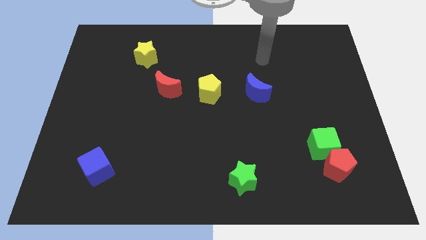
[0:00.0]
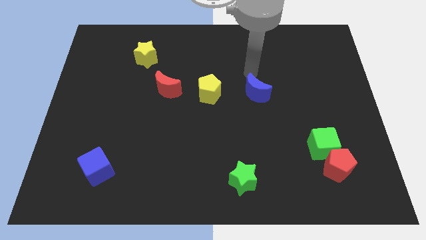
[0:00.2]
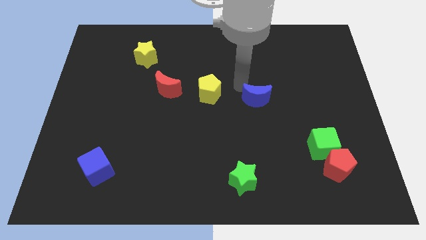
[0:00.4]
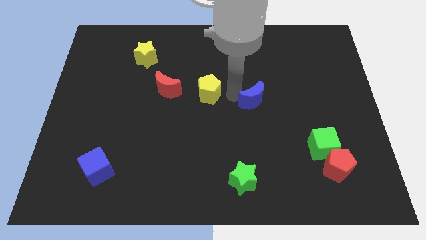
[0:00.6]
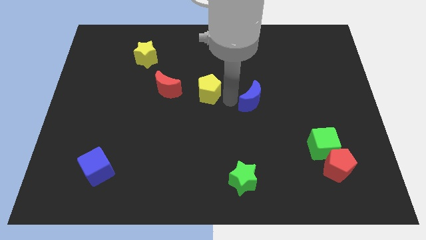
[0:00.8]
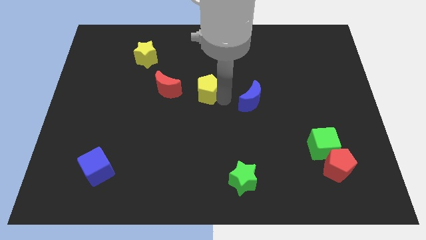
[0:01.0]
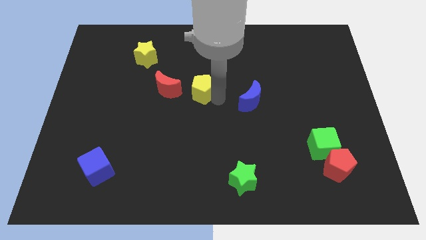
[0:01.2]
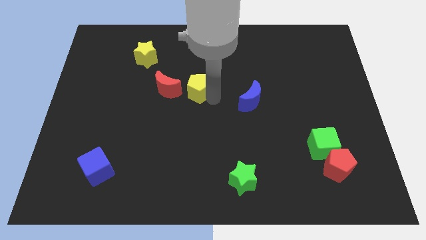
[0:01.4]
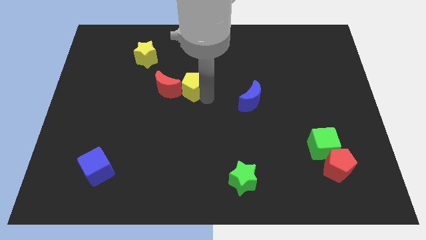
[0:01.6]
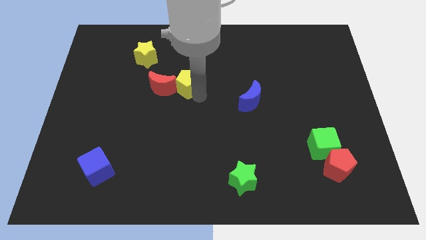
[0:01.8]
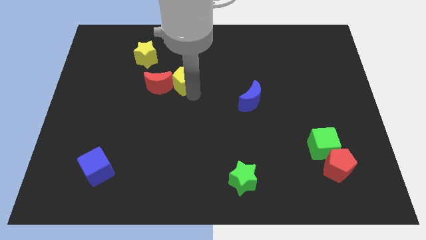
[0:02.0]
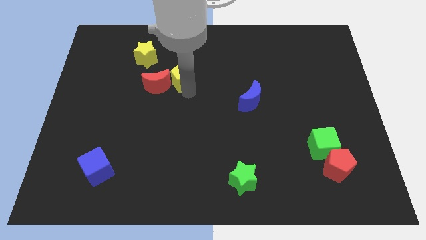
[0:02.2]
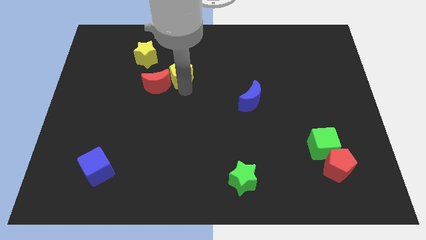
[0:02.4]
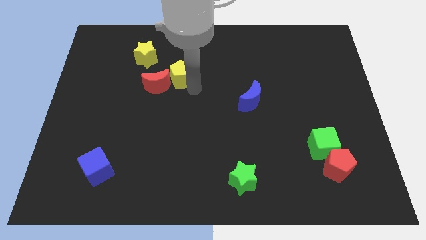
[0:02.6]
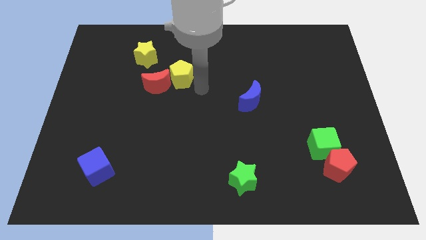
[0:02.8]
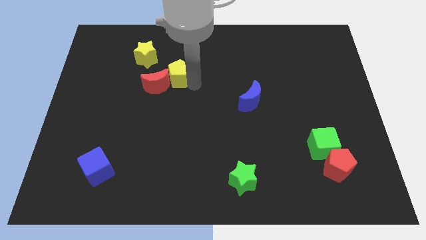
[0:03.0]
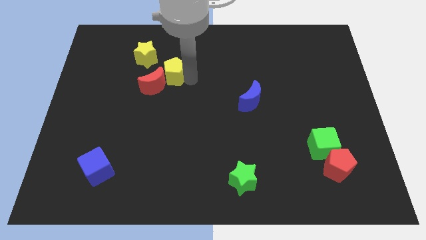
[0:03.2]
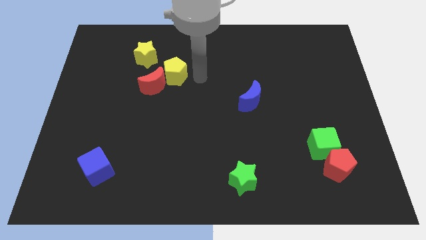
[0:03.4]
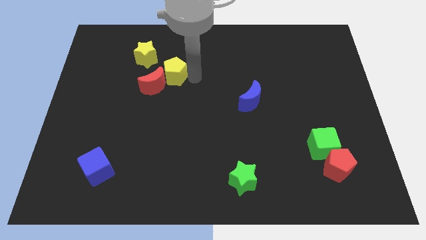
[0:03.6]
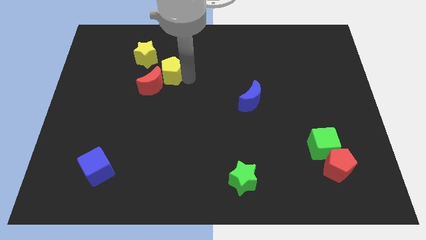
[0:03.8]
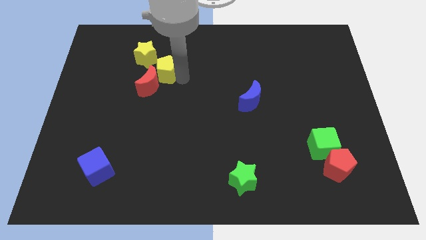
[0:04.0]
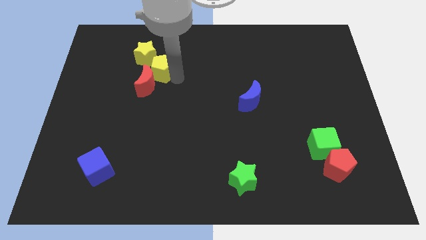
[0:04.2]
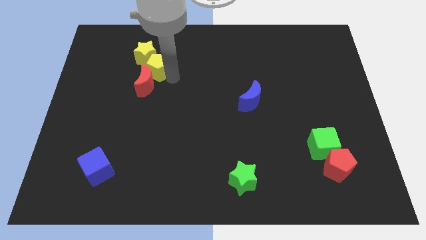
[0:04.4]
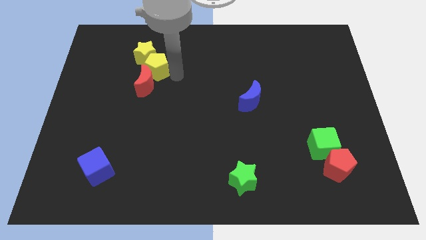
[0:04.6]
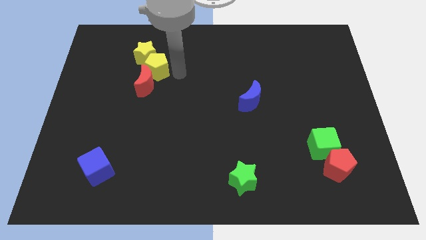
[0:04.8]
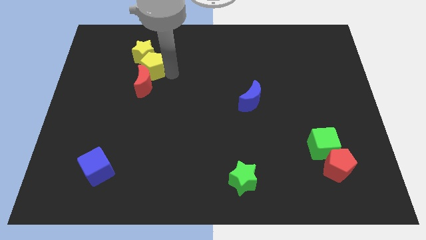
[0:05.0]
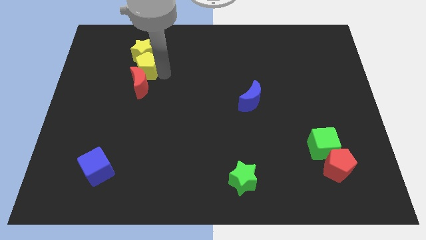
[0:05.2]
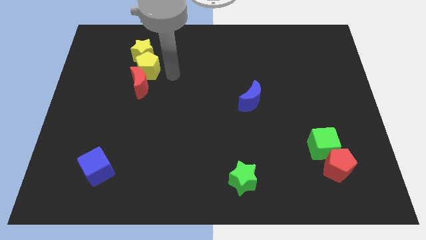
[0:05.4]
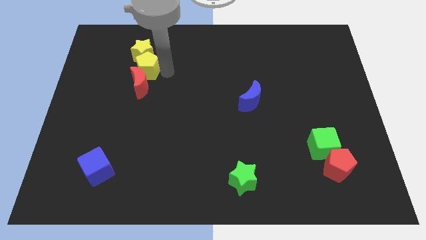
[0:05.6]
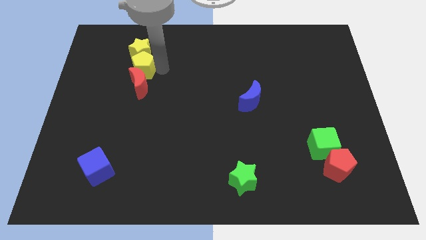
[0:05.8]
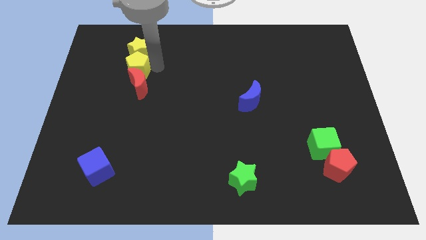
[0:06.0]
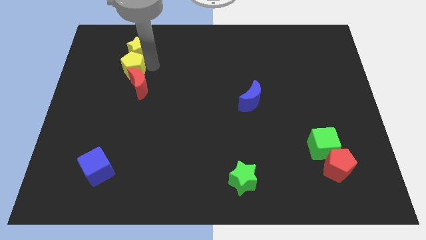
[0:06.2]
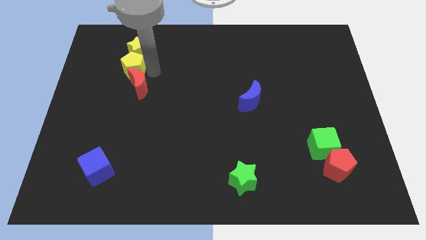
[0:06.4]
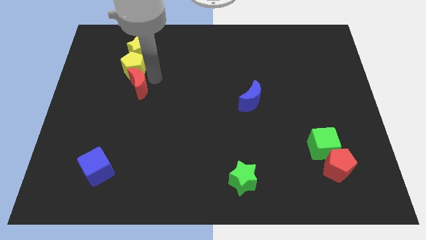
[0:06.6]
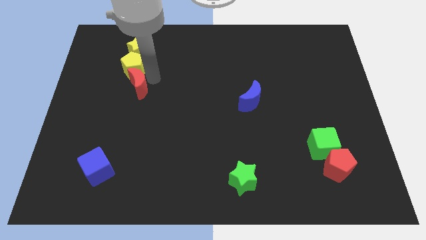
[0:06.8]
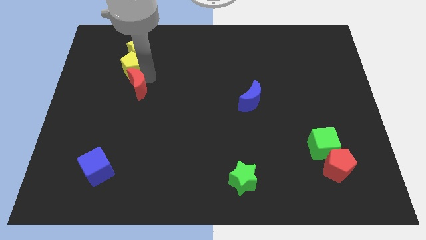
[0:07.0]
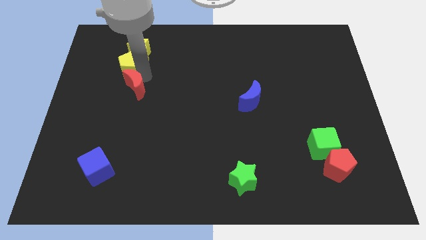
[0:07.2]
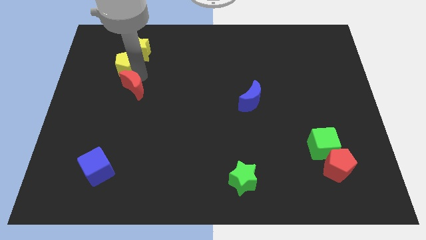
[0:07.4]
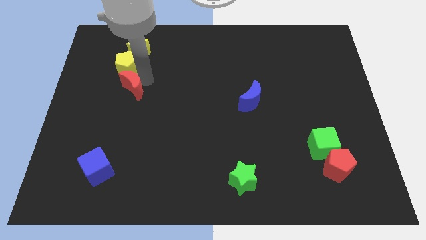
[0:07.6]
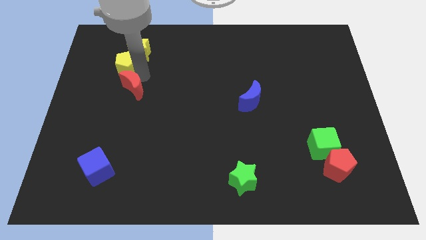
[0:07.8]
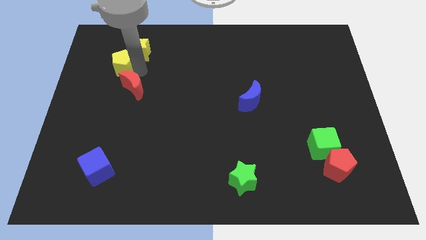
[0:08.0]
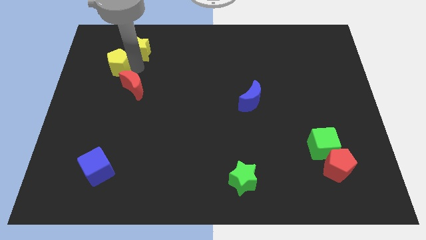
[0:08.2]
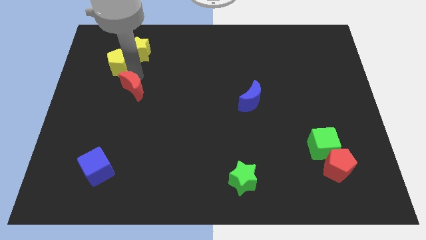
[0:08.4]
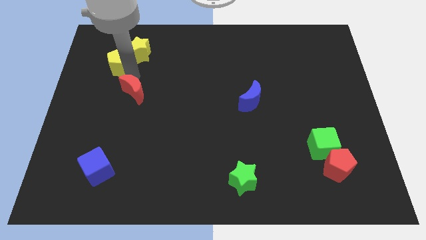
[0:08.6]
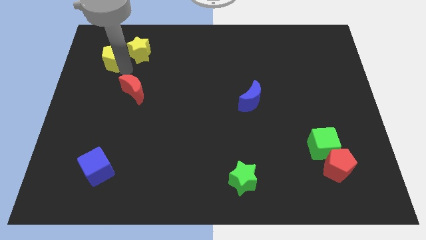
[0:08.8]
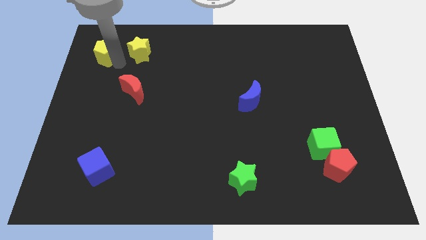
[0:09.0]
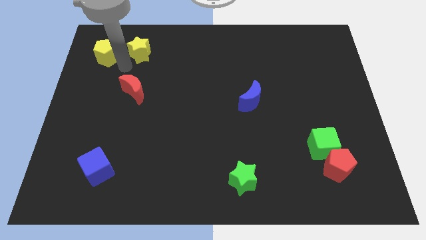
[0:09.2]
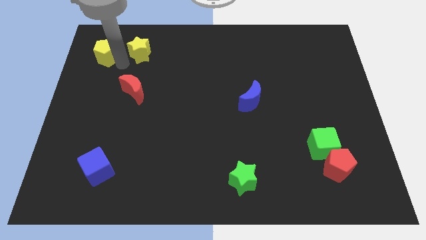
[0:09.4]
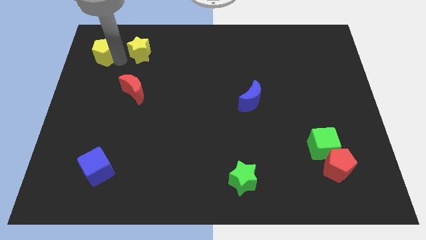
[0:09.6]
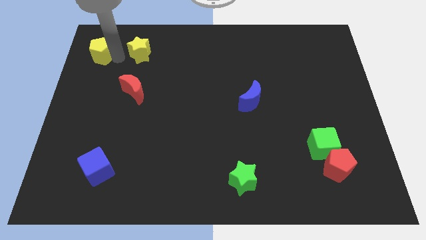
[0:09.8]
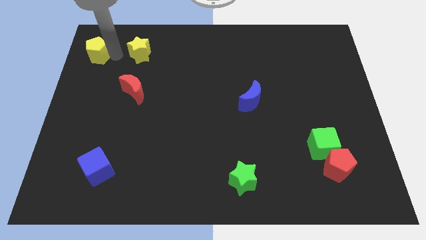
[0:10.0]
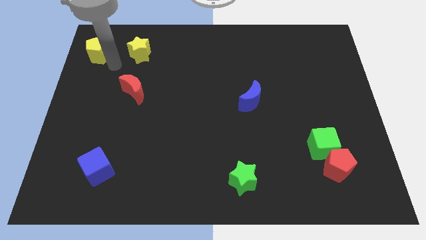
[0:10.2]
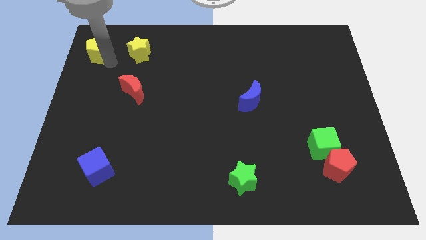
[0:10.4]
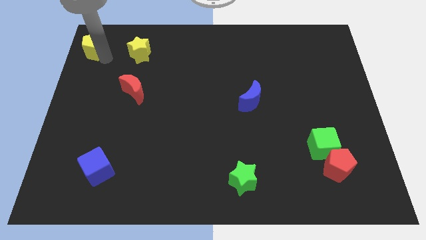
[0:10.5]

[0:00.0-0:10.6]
slide the yellow pentagon to the upper left corner

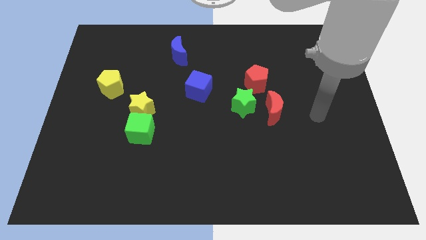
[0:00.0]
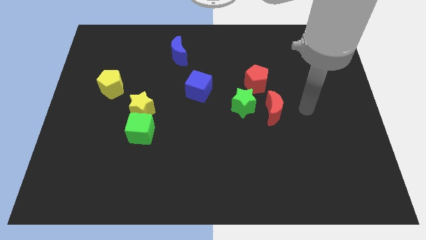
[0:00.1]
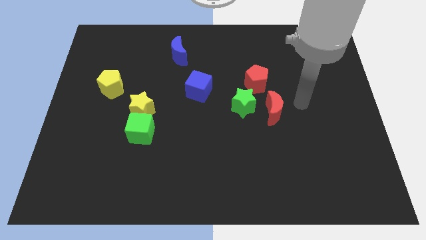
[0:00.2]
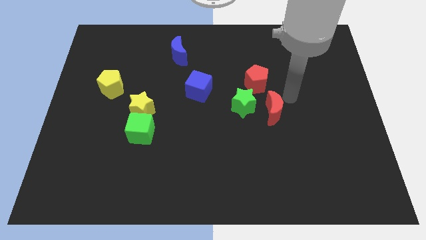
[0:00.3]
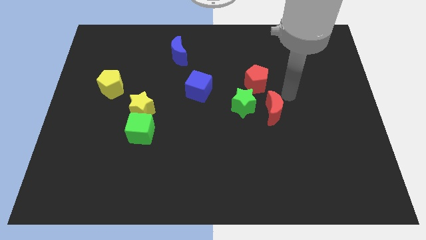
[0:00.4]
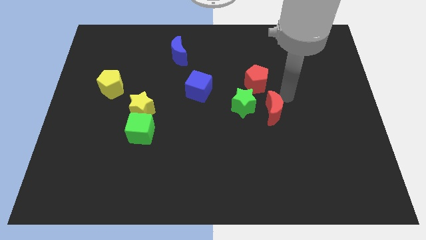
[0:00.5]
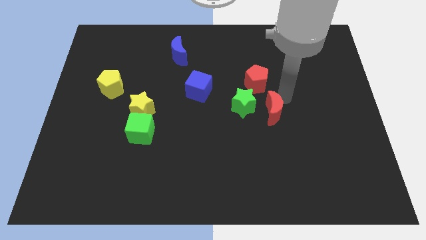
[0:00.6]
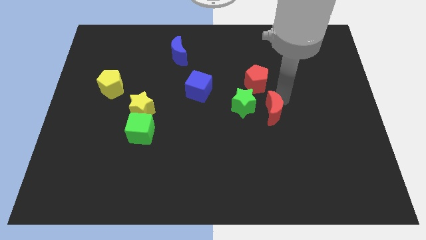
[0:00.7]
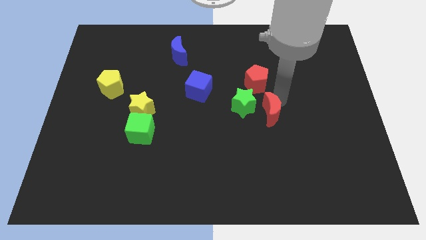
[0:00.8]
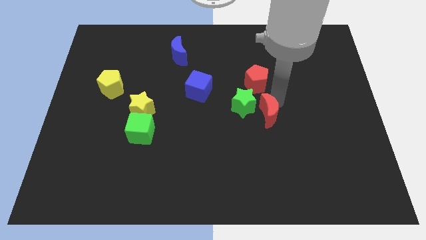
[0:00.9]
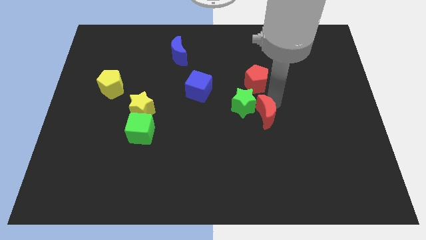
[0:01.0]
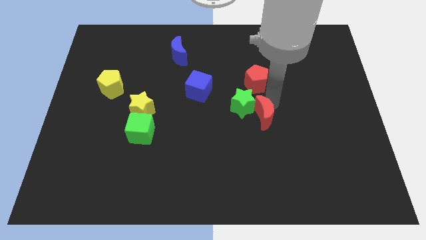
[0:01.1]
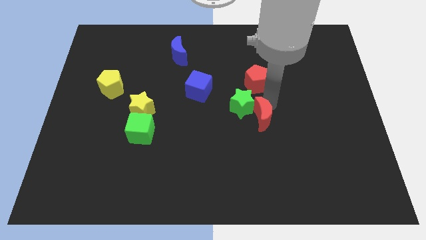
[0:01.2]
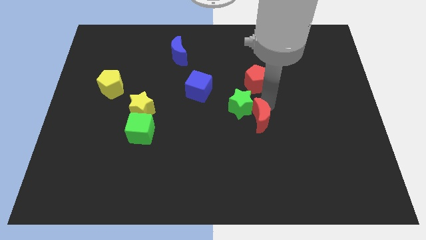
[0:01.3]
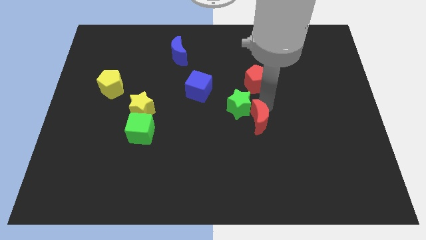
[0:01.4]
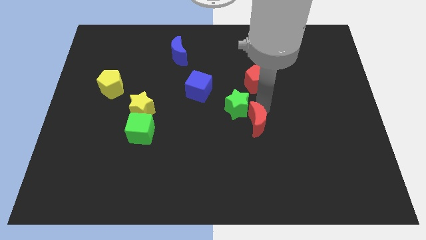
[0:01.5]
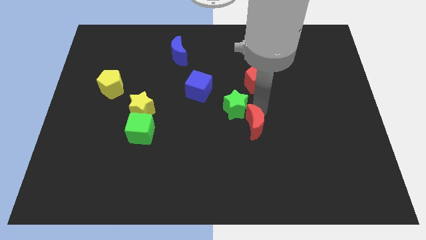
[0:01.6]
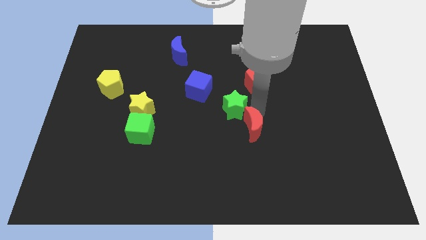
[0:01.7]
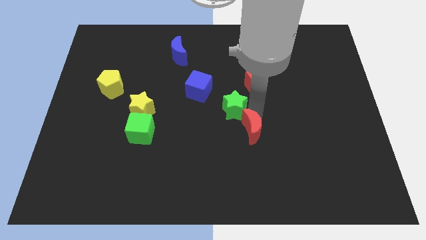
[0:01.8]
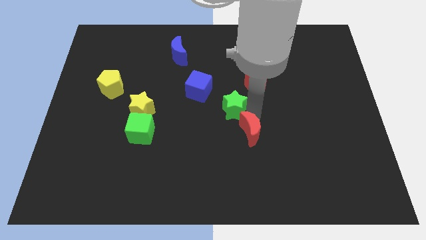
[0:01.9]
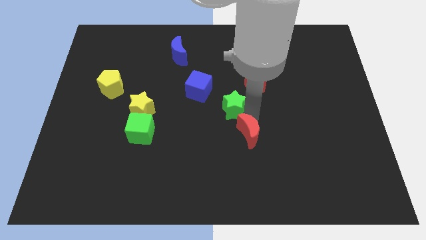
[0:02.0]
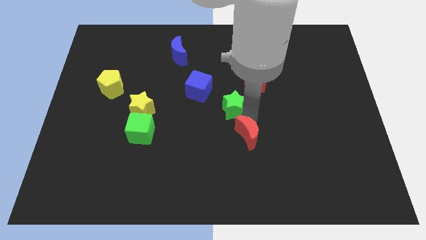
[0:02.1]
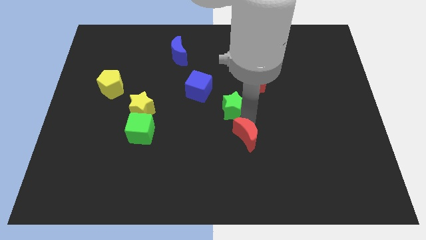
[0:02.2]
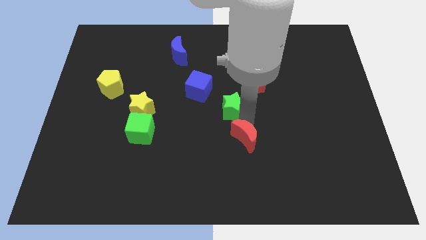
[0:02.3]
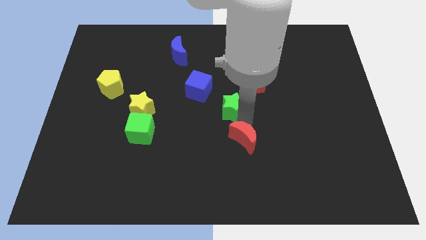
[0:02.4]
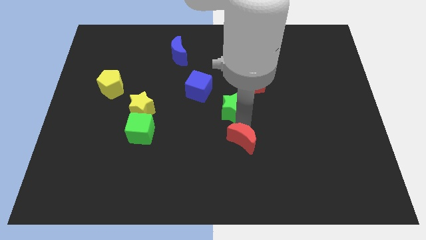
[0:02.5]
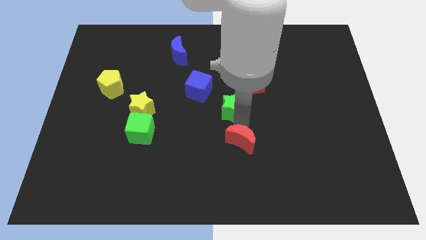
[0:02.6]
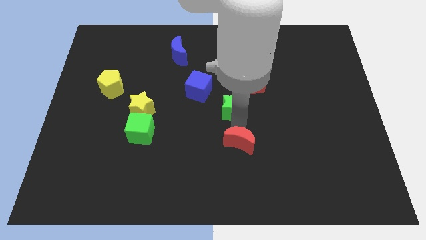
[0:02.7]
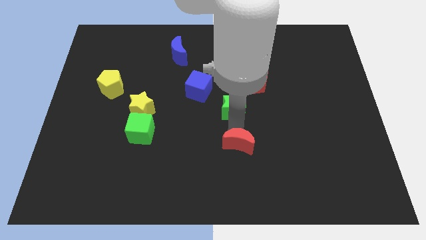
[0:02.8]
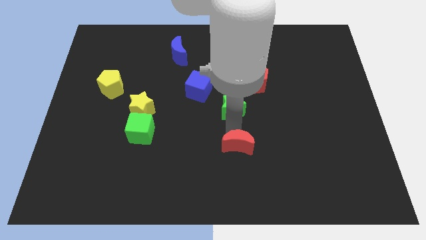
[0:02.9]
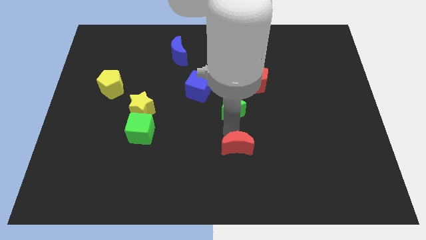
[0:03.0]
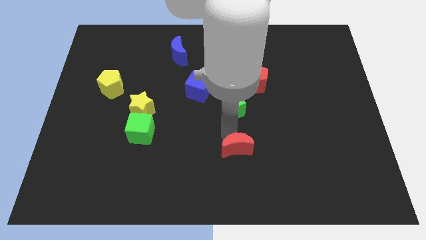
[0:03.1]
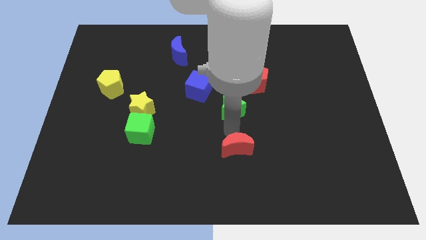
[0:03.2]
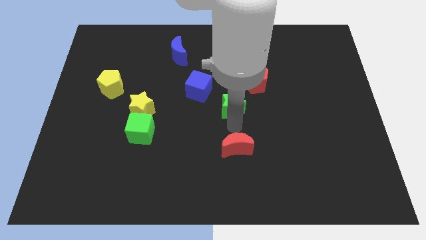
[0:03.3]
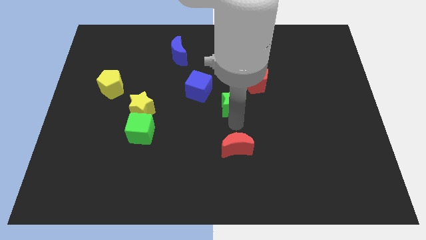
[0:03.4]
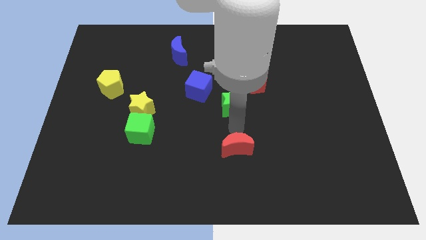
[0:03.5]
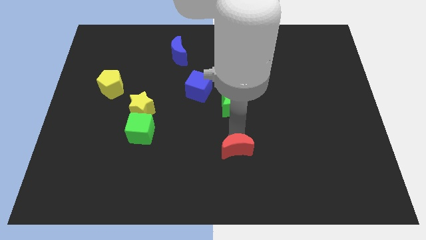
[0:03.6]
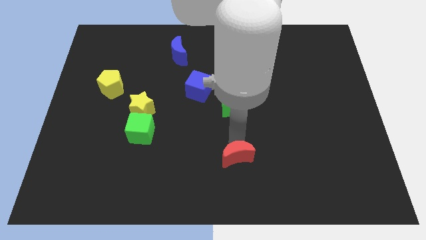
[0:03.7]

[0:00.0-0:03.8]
put the red moon to the bottom
